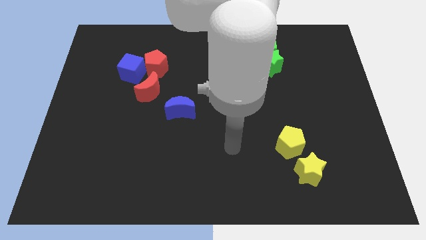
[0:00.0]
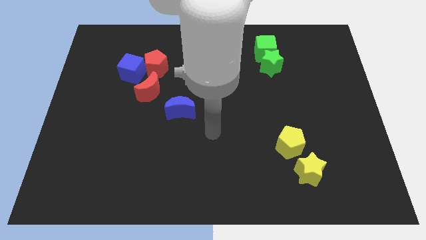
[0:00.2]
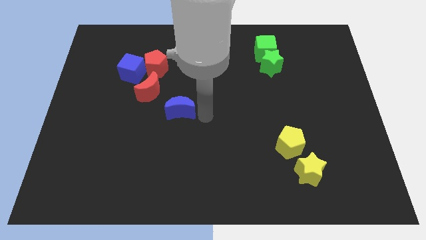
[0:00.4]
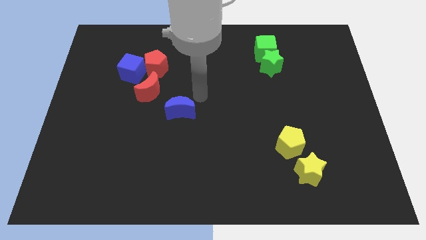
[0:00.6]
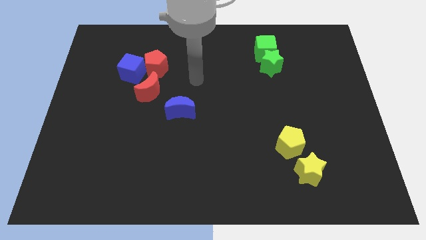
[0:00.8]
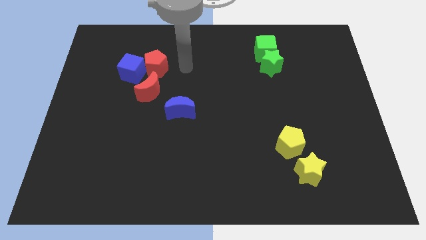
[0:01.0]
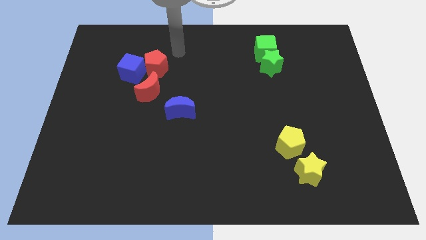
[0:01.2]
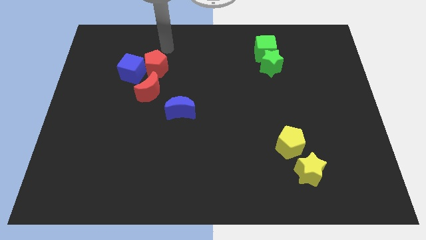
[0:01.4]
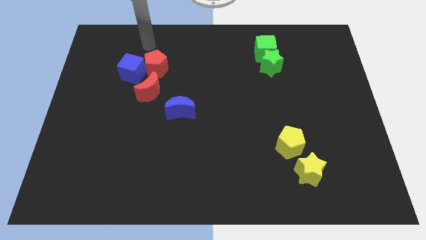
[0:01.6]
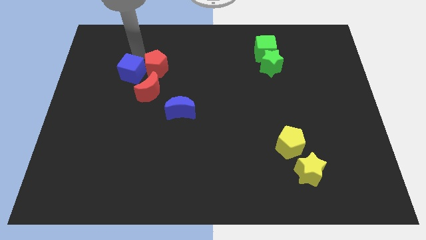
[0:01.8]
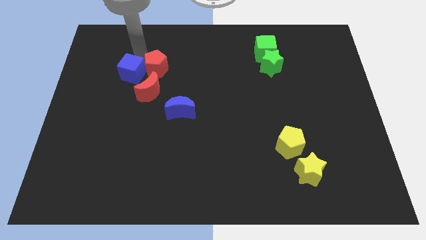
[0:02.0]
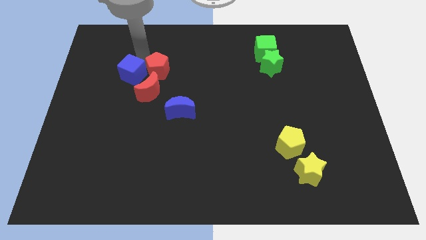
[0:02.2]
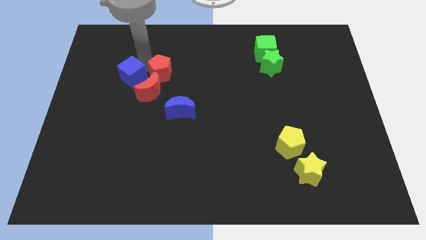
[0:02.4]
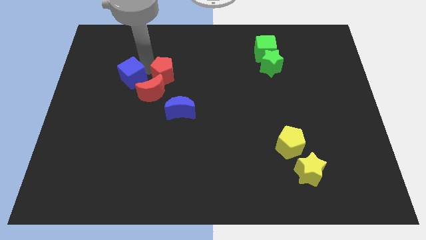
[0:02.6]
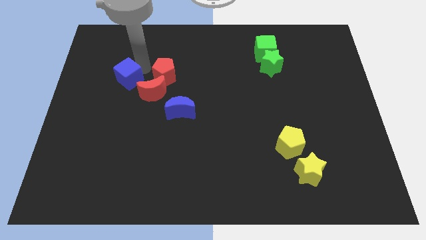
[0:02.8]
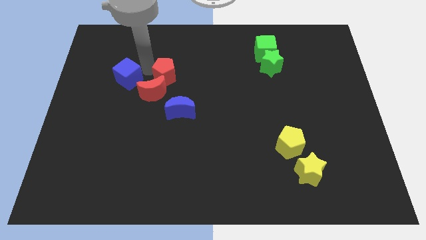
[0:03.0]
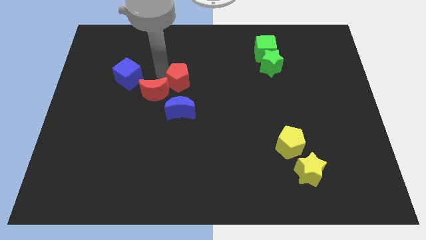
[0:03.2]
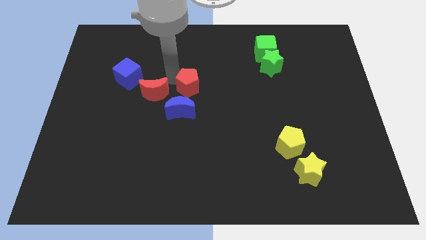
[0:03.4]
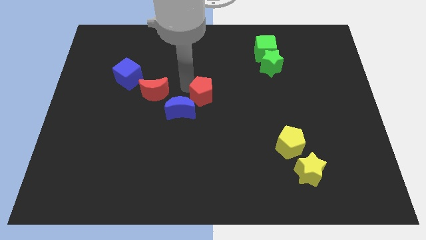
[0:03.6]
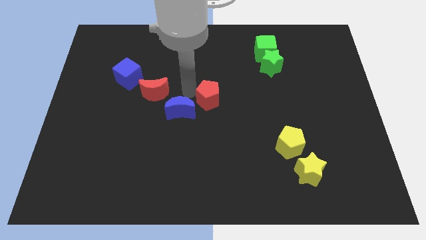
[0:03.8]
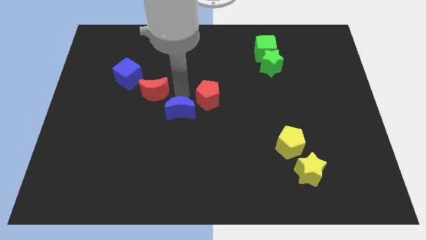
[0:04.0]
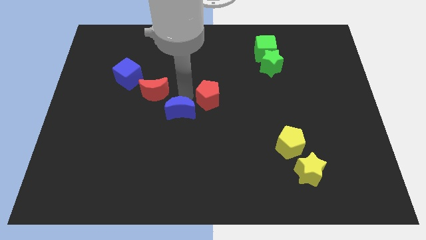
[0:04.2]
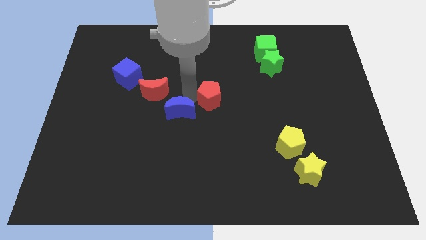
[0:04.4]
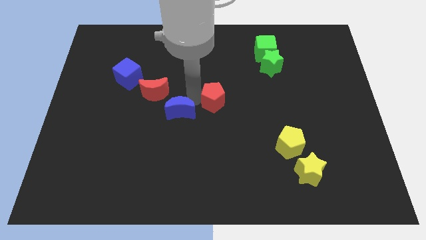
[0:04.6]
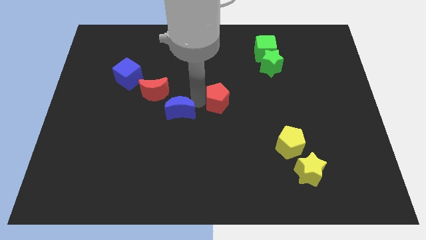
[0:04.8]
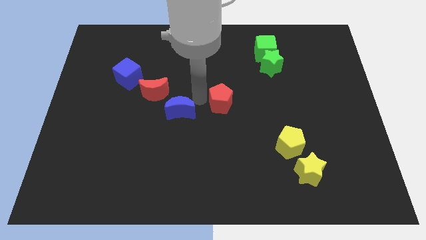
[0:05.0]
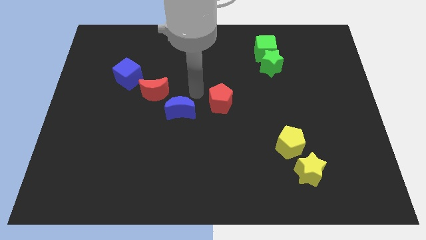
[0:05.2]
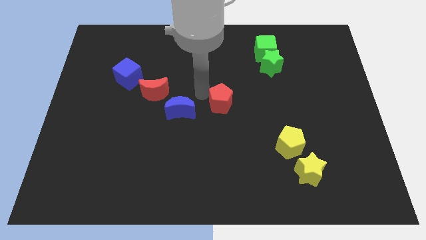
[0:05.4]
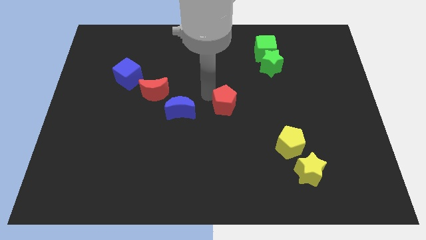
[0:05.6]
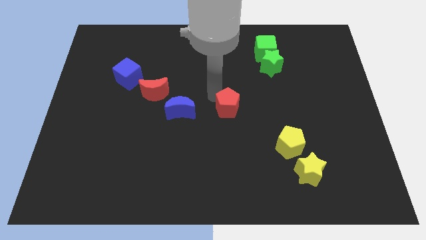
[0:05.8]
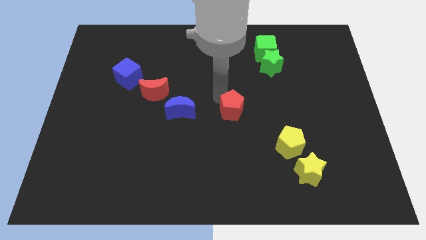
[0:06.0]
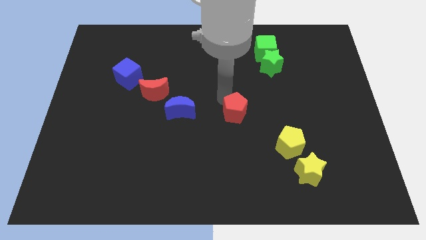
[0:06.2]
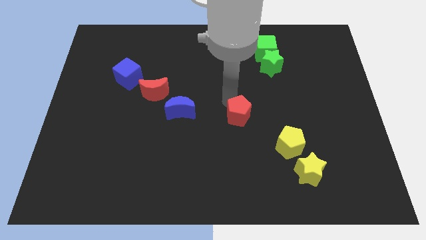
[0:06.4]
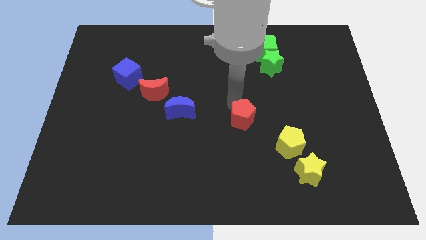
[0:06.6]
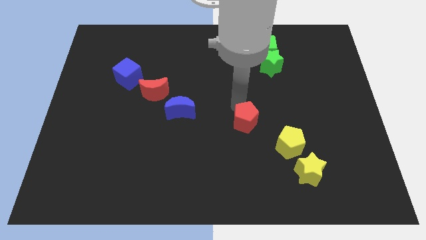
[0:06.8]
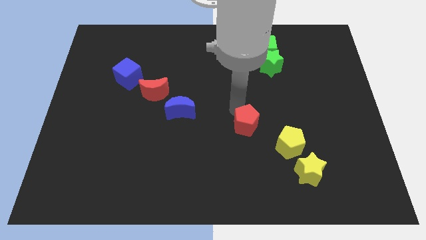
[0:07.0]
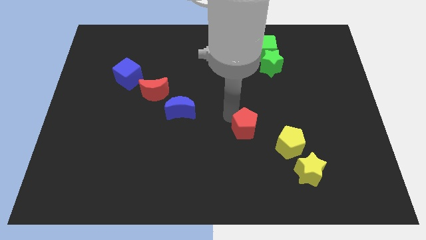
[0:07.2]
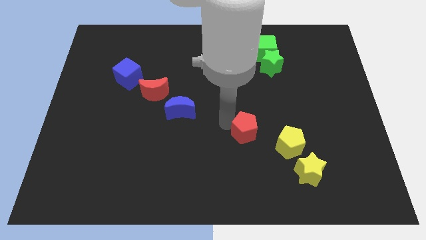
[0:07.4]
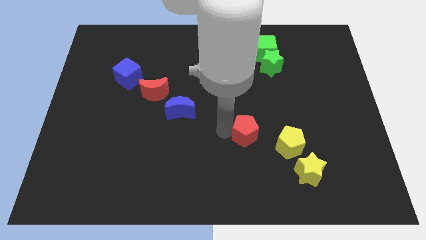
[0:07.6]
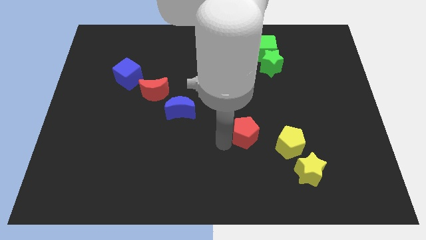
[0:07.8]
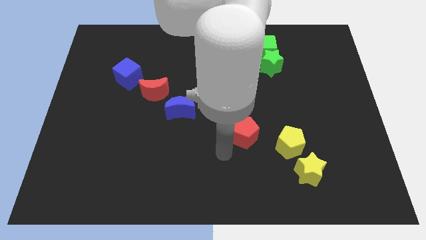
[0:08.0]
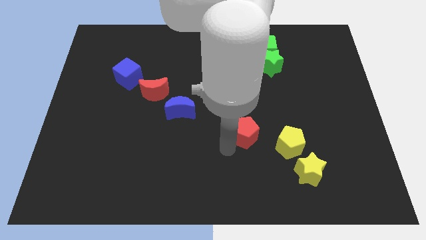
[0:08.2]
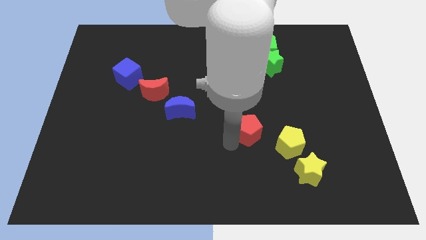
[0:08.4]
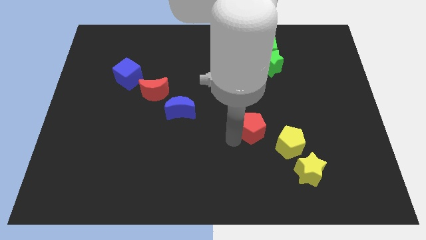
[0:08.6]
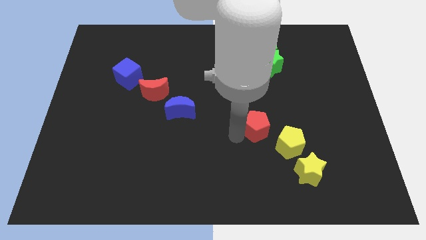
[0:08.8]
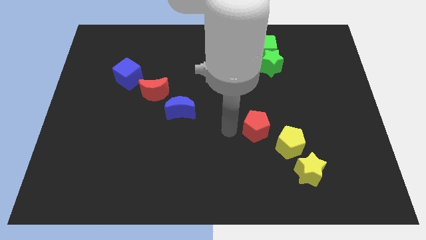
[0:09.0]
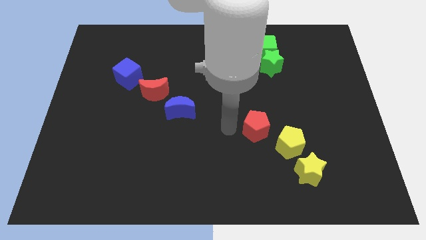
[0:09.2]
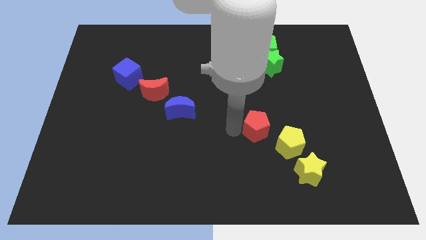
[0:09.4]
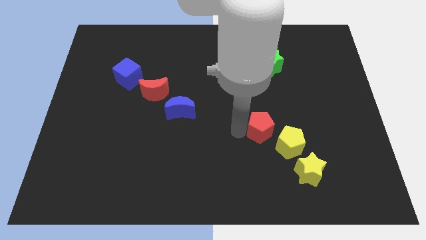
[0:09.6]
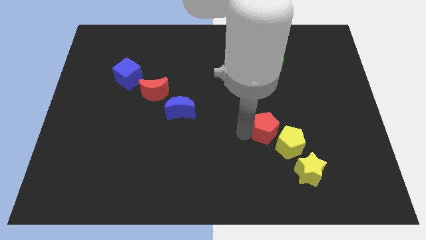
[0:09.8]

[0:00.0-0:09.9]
move the red pentagon next to the yellow pentagon

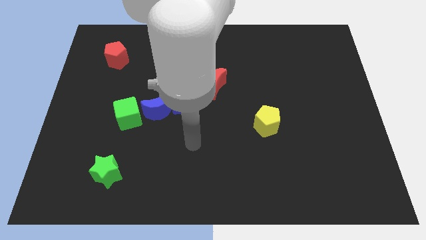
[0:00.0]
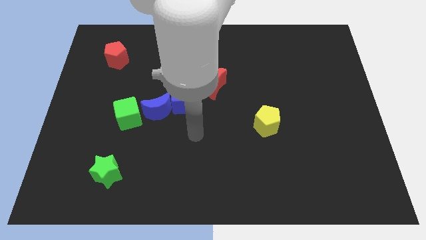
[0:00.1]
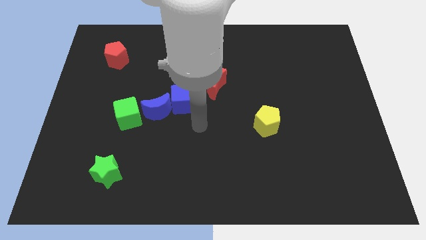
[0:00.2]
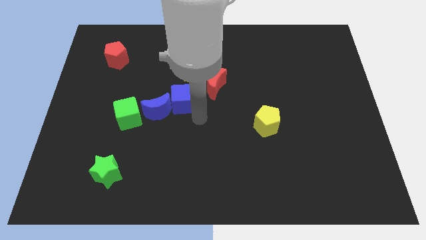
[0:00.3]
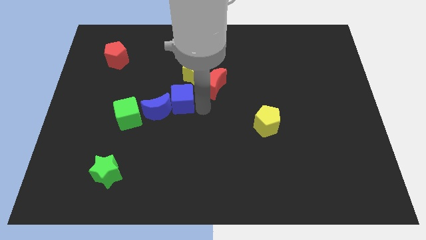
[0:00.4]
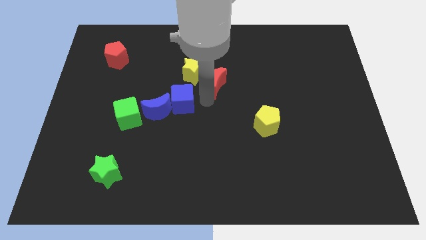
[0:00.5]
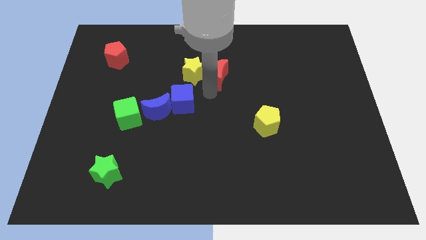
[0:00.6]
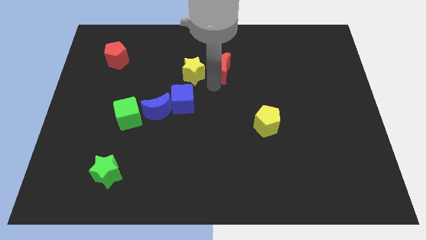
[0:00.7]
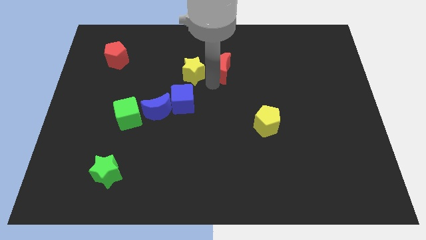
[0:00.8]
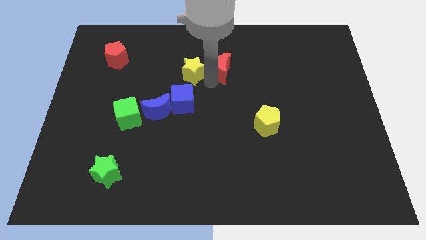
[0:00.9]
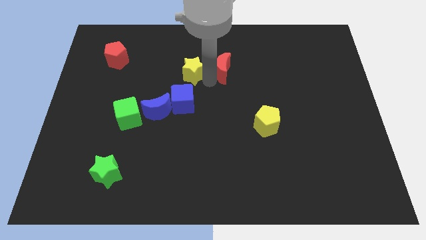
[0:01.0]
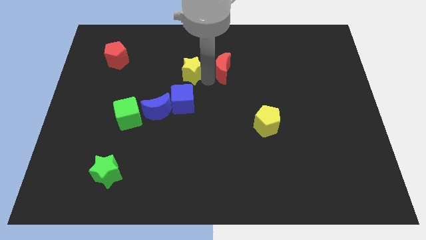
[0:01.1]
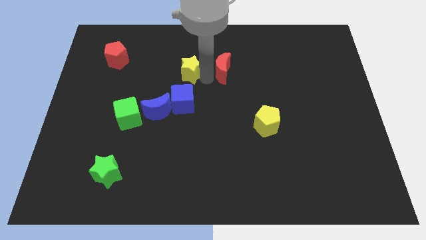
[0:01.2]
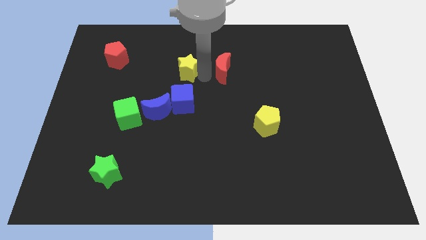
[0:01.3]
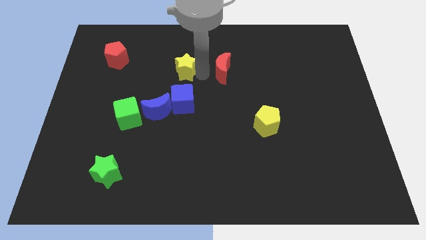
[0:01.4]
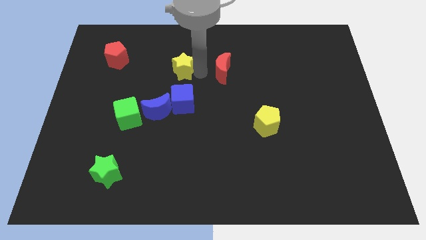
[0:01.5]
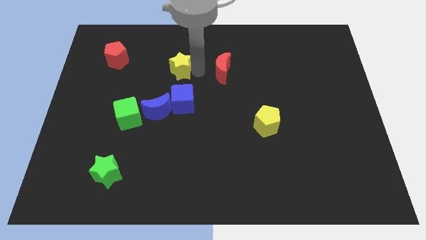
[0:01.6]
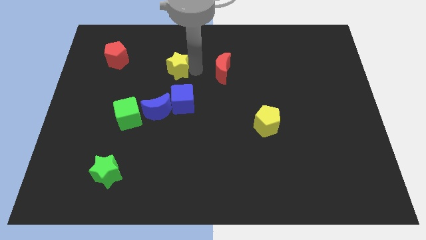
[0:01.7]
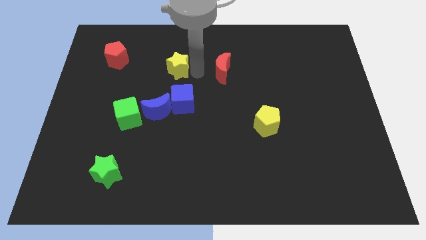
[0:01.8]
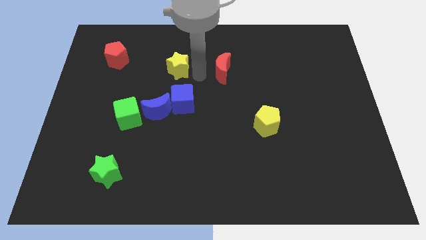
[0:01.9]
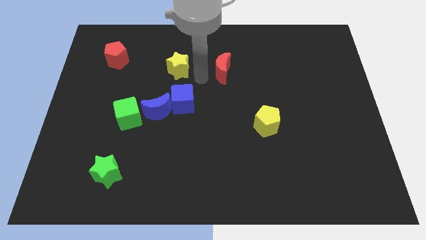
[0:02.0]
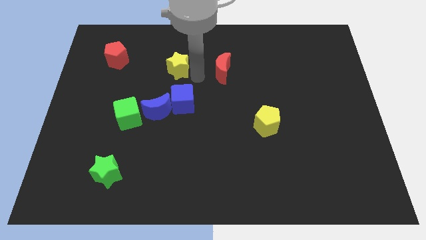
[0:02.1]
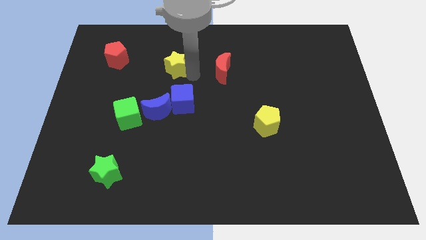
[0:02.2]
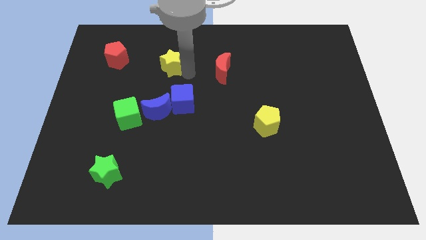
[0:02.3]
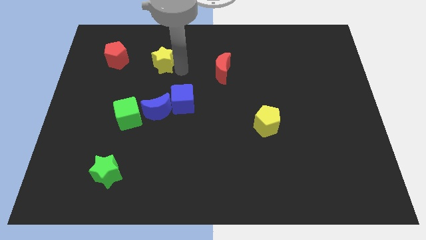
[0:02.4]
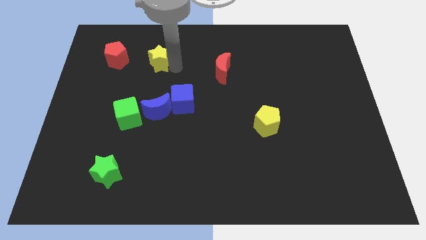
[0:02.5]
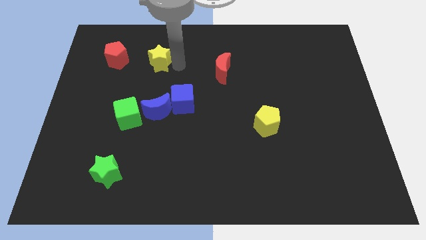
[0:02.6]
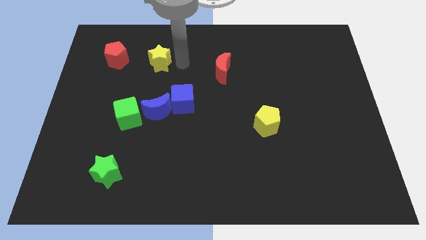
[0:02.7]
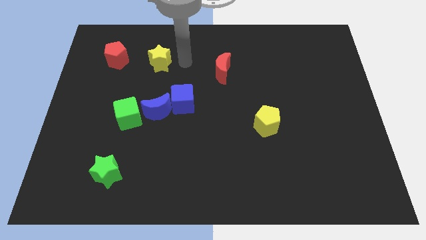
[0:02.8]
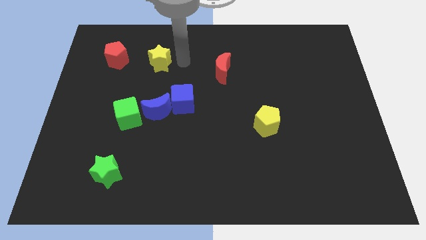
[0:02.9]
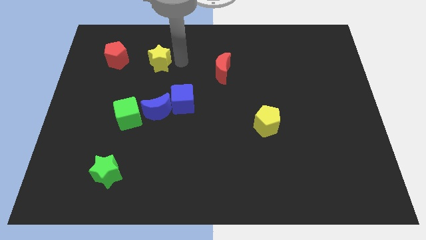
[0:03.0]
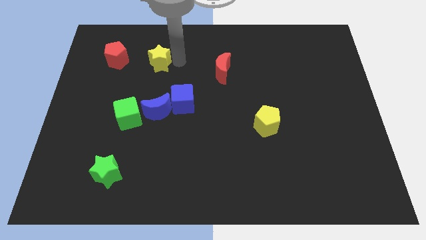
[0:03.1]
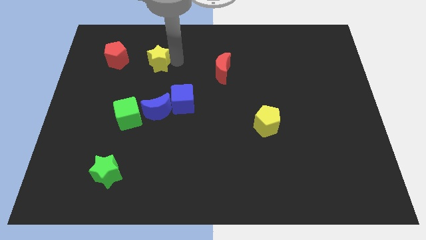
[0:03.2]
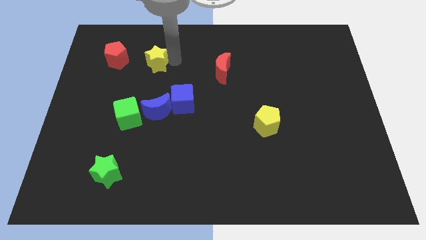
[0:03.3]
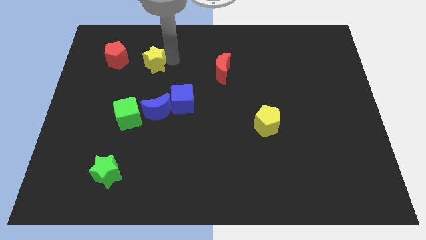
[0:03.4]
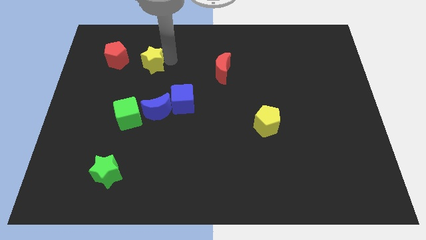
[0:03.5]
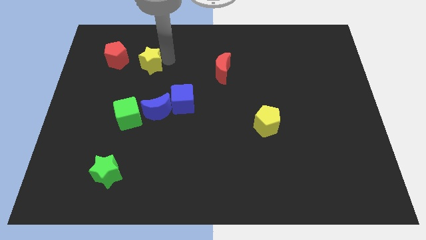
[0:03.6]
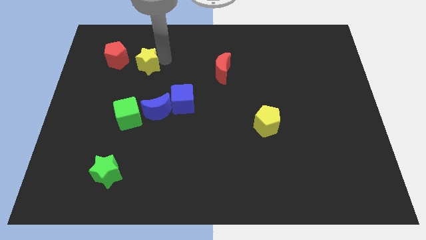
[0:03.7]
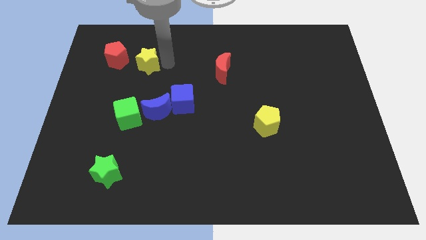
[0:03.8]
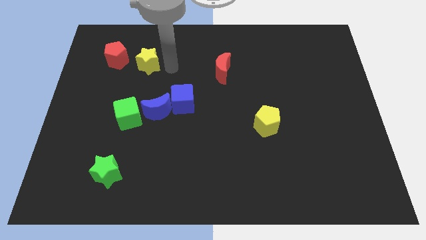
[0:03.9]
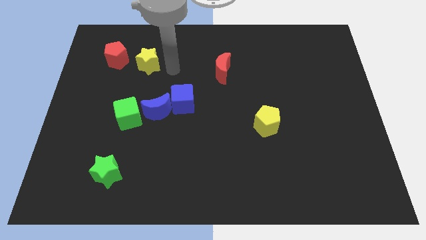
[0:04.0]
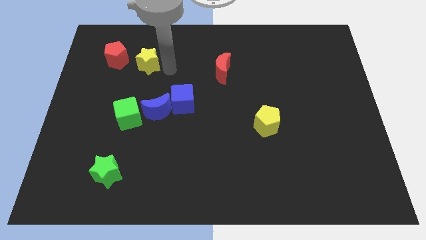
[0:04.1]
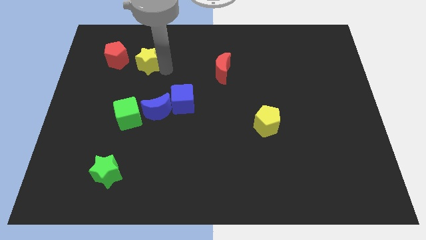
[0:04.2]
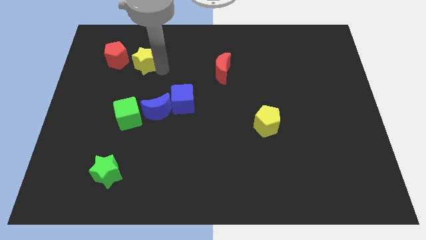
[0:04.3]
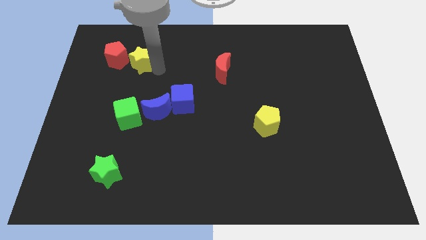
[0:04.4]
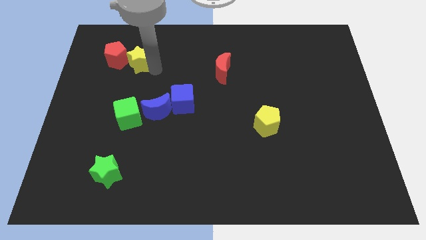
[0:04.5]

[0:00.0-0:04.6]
slide the yellow star close to the red pentagon
